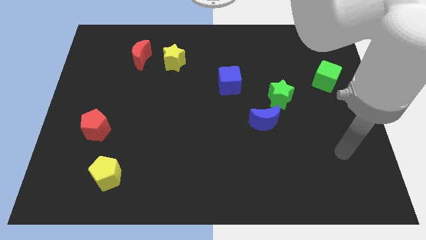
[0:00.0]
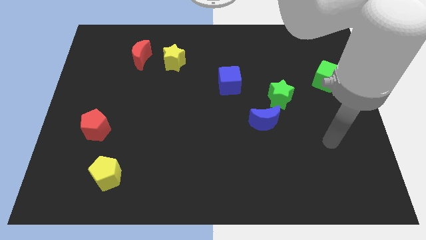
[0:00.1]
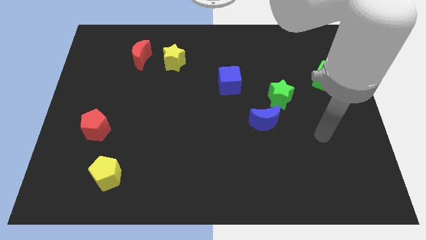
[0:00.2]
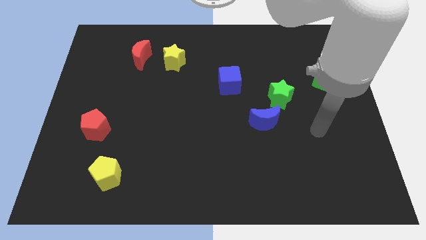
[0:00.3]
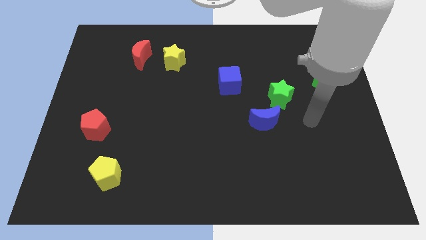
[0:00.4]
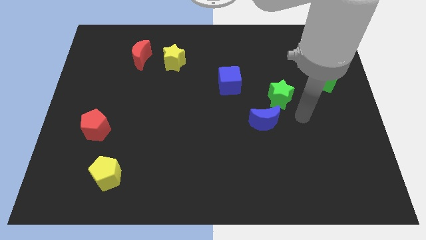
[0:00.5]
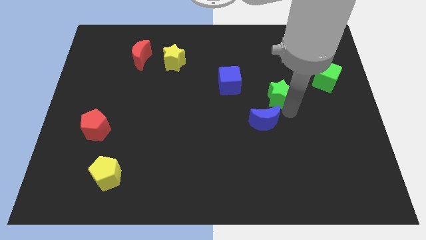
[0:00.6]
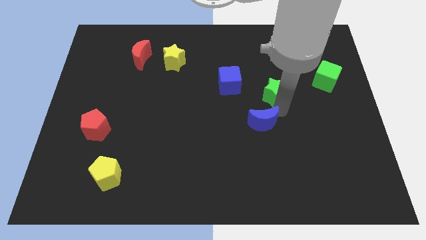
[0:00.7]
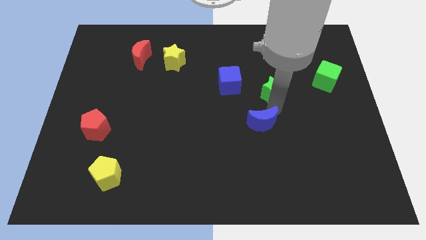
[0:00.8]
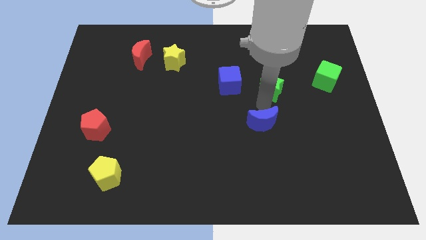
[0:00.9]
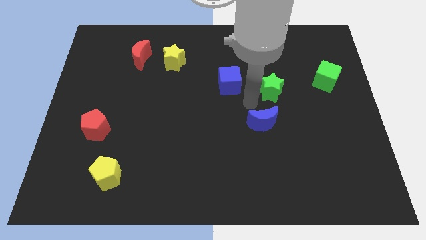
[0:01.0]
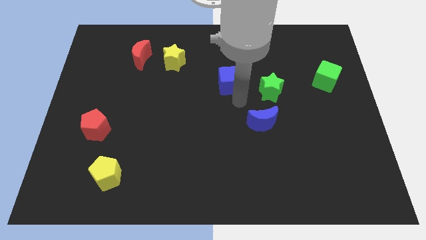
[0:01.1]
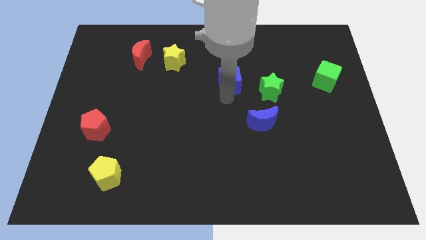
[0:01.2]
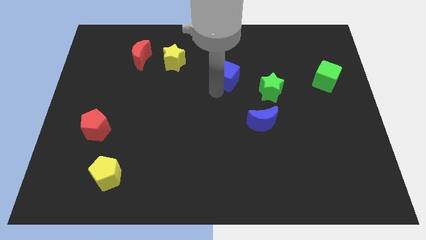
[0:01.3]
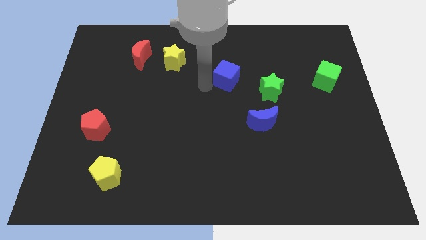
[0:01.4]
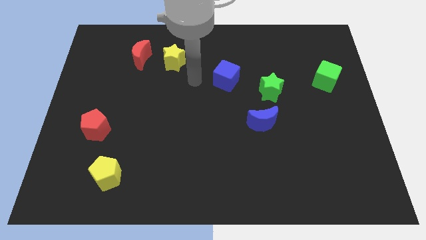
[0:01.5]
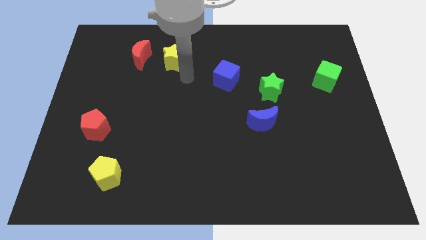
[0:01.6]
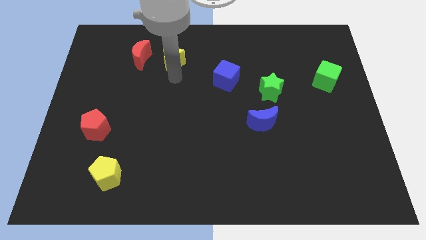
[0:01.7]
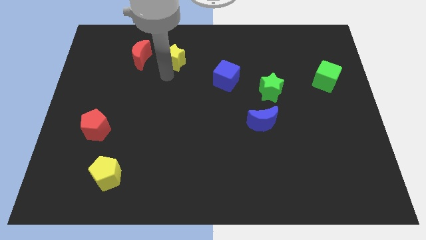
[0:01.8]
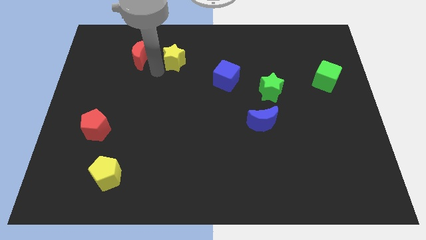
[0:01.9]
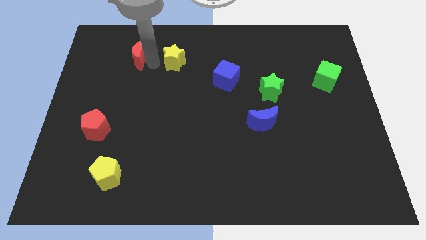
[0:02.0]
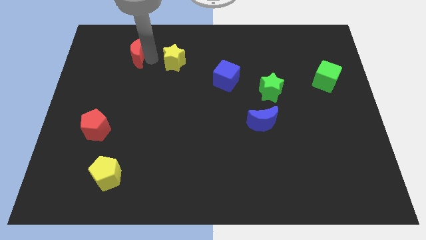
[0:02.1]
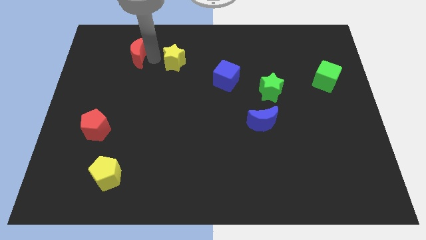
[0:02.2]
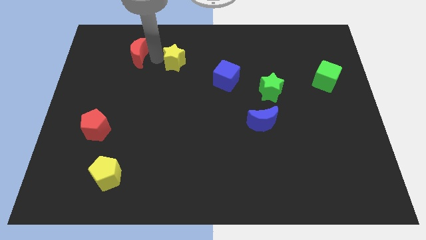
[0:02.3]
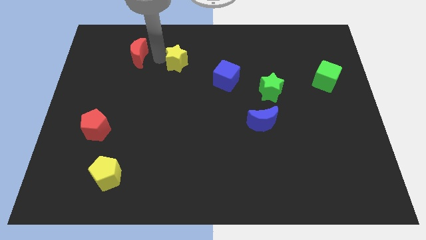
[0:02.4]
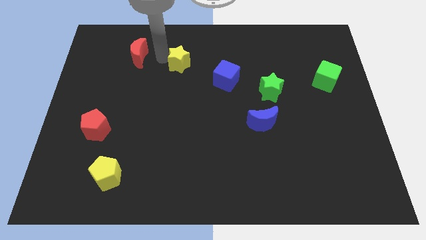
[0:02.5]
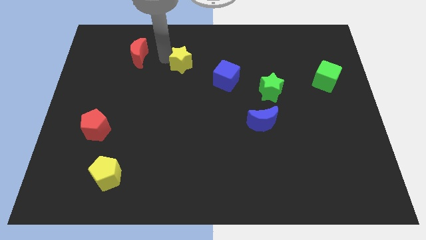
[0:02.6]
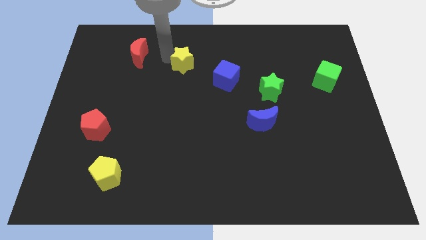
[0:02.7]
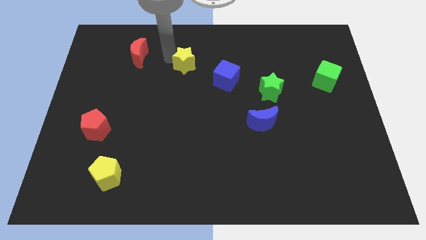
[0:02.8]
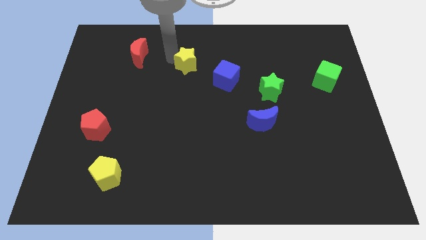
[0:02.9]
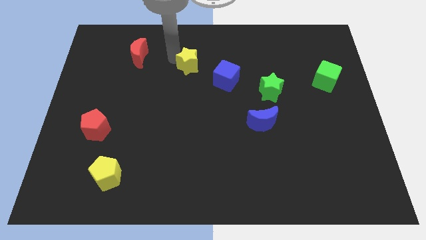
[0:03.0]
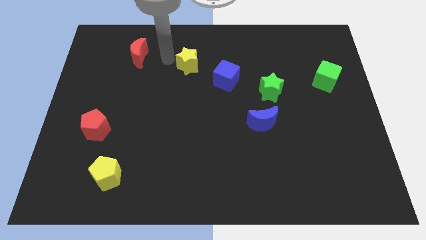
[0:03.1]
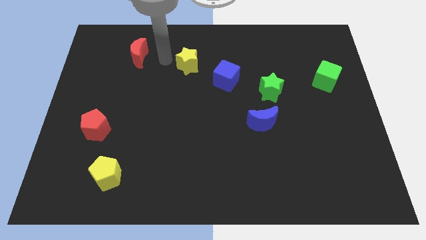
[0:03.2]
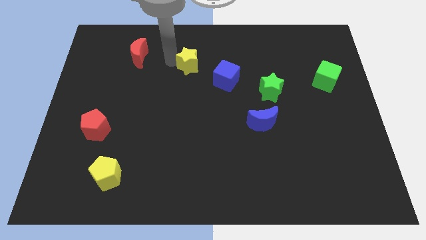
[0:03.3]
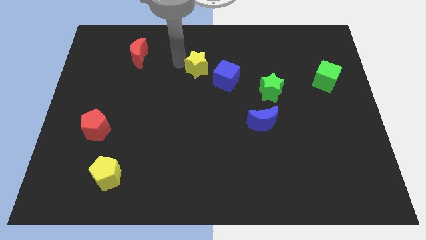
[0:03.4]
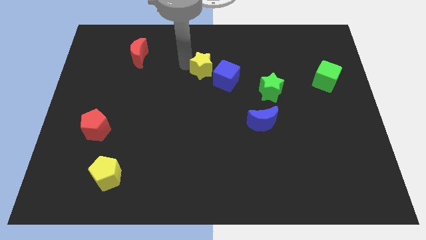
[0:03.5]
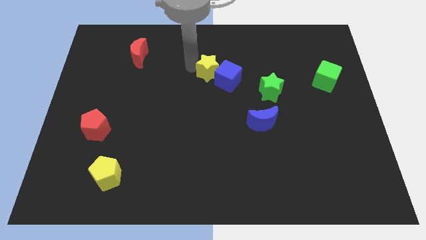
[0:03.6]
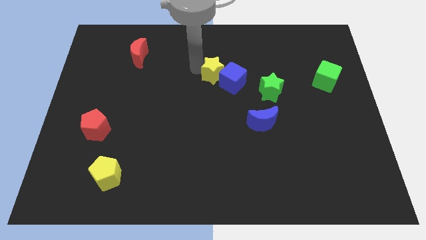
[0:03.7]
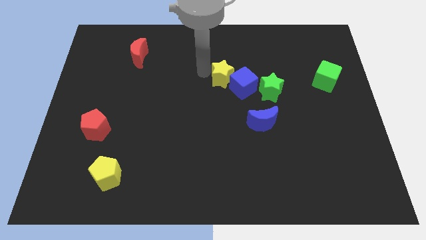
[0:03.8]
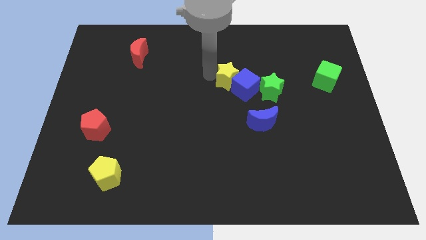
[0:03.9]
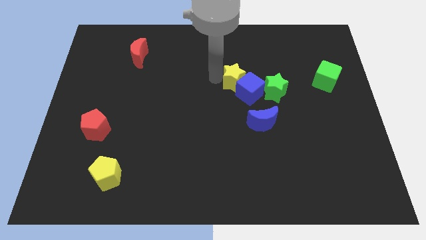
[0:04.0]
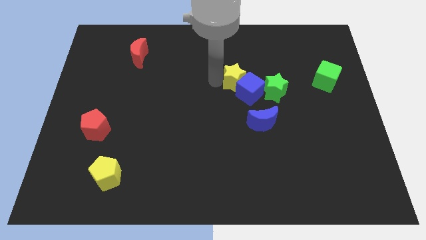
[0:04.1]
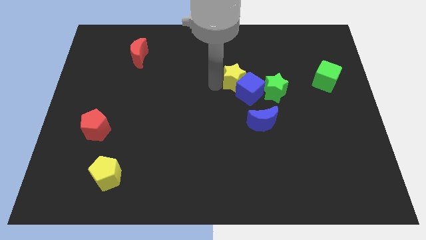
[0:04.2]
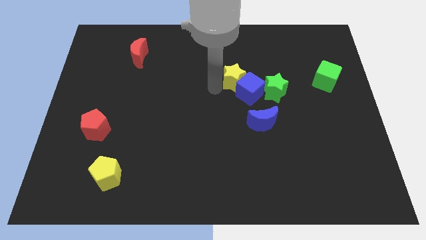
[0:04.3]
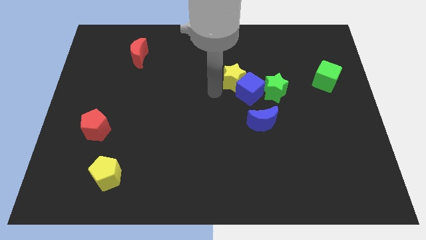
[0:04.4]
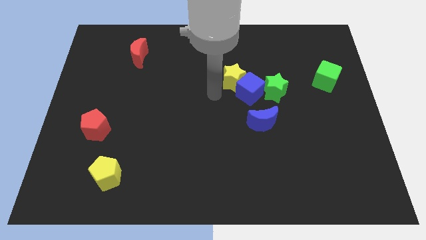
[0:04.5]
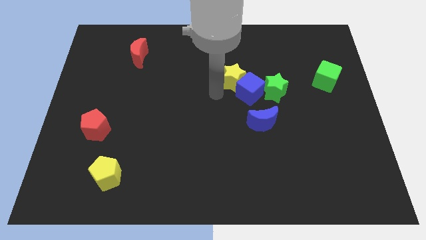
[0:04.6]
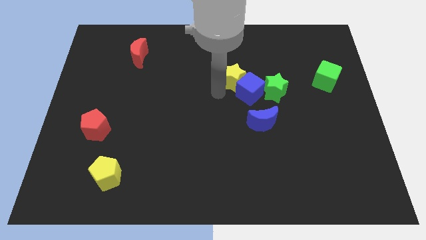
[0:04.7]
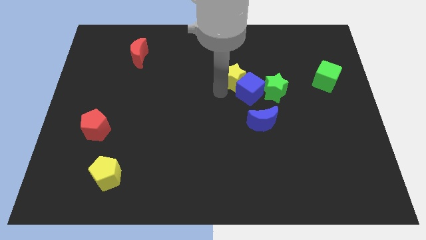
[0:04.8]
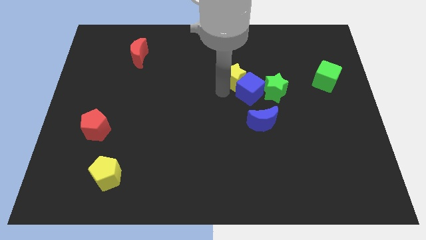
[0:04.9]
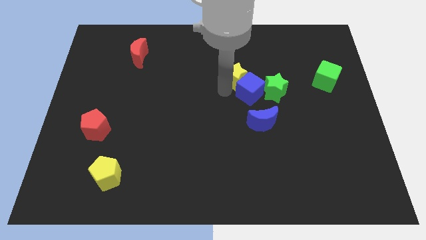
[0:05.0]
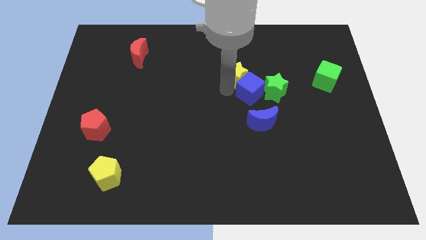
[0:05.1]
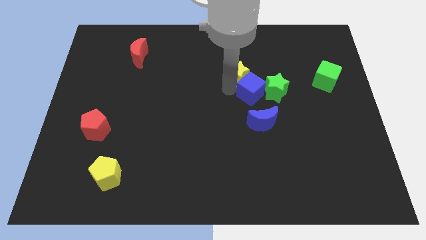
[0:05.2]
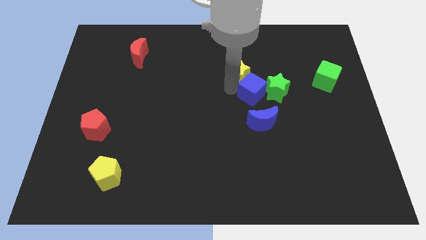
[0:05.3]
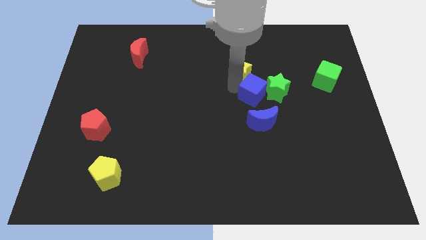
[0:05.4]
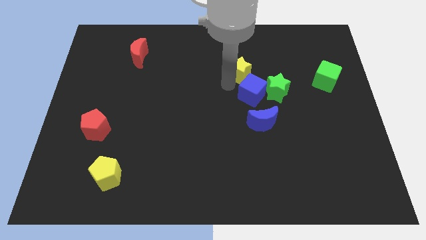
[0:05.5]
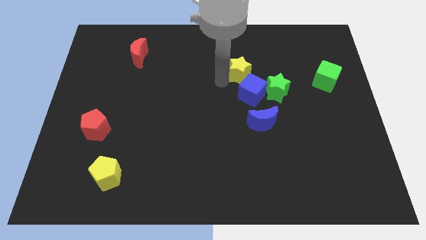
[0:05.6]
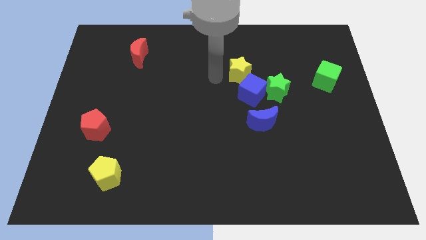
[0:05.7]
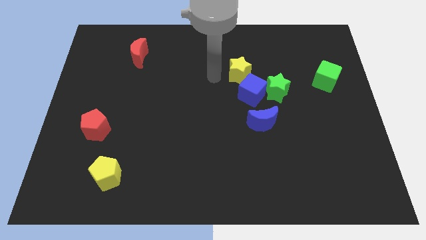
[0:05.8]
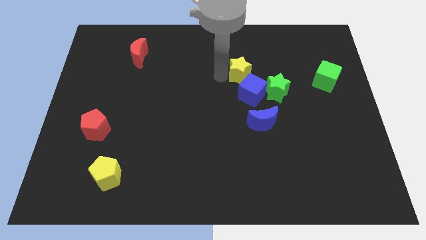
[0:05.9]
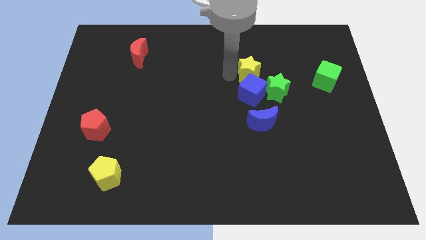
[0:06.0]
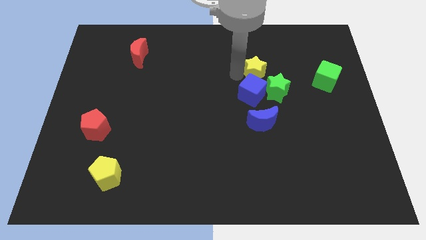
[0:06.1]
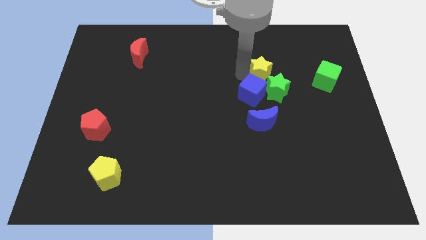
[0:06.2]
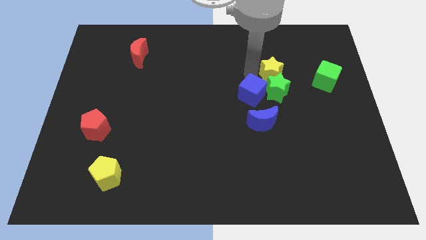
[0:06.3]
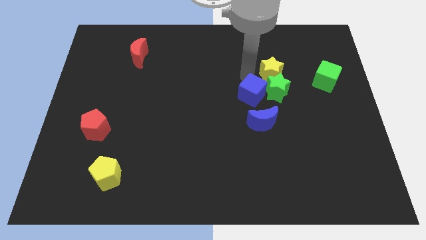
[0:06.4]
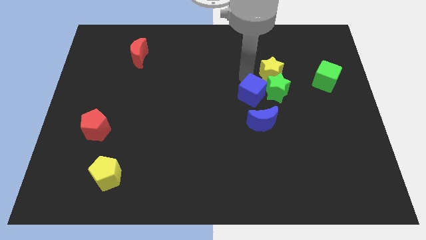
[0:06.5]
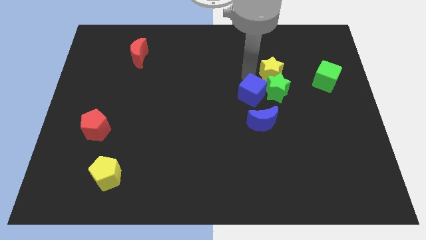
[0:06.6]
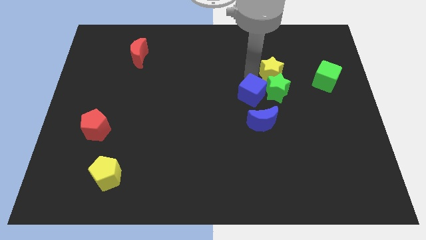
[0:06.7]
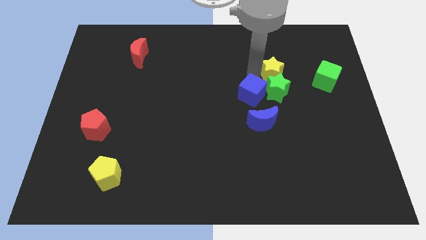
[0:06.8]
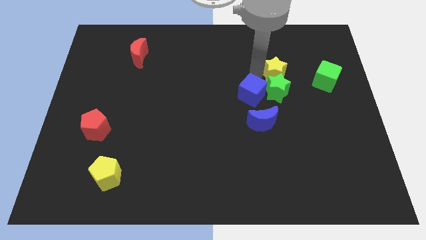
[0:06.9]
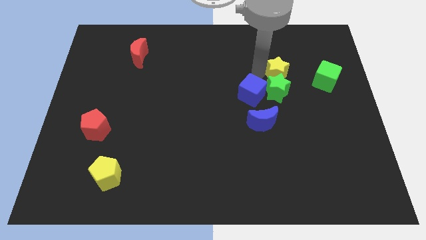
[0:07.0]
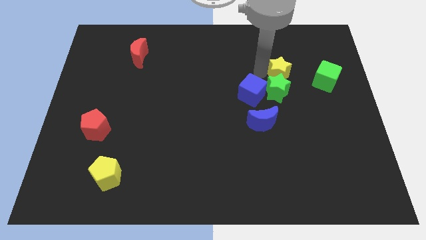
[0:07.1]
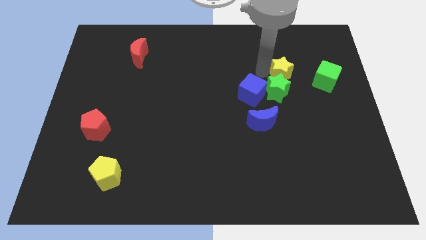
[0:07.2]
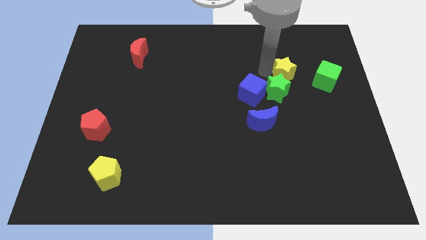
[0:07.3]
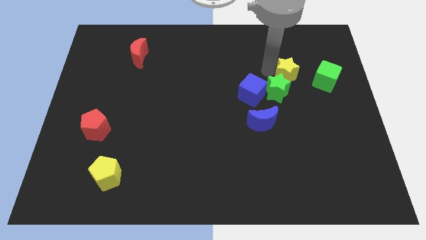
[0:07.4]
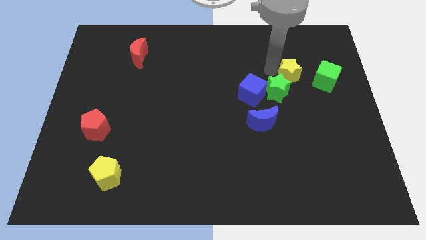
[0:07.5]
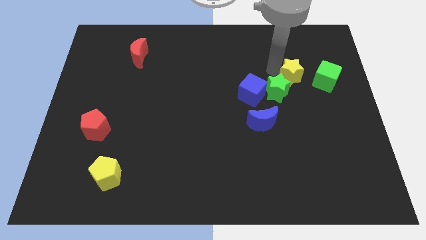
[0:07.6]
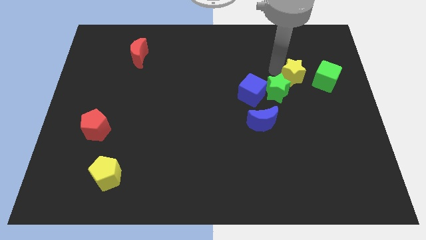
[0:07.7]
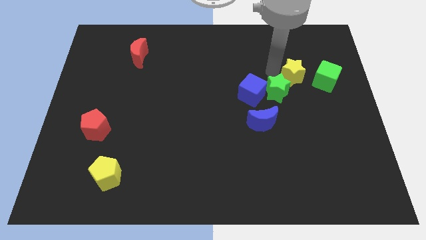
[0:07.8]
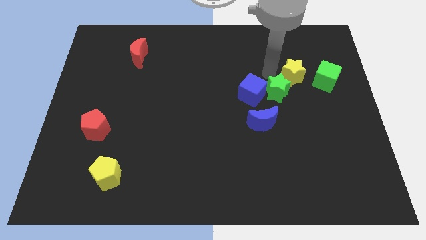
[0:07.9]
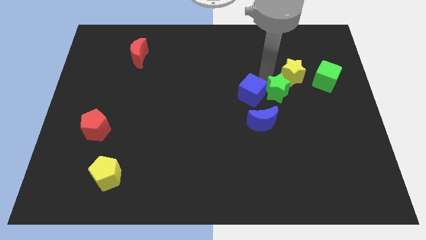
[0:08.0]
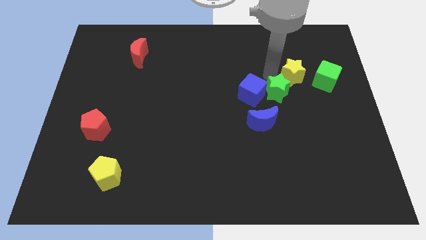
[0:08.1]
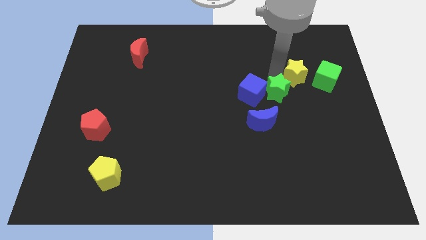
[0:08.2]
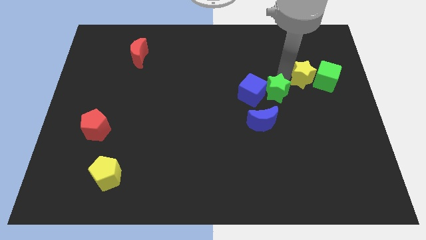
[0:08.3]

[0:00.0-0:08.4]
move the yellow star next to the green cube
